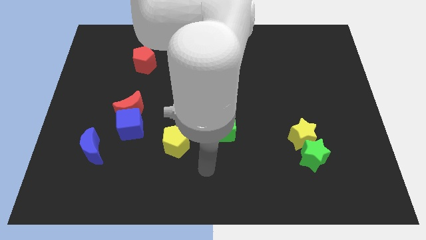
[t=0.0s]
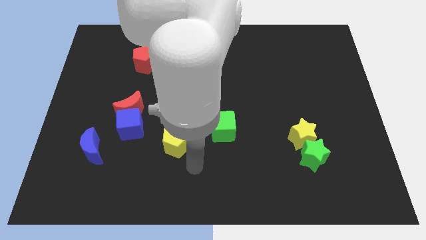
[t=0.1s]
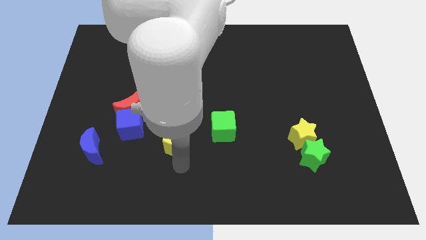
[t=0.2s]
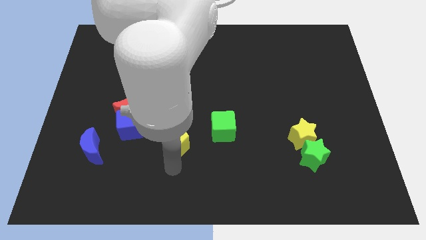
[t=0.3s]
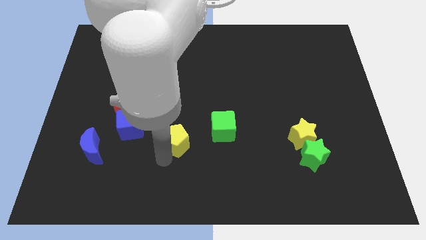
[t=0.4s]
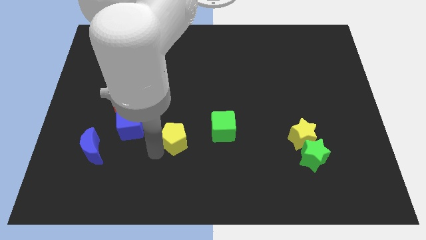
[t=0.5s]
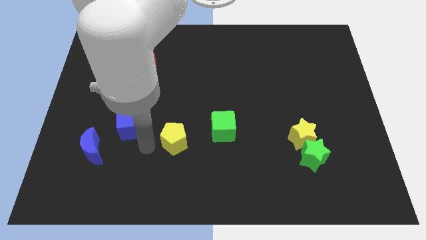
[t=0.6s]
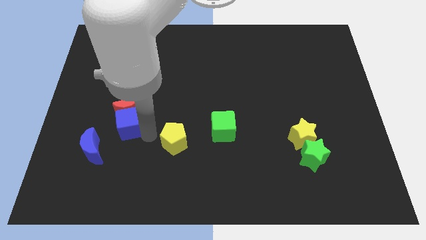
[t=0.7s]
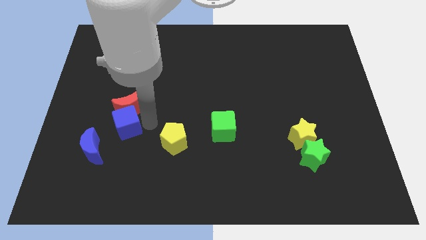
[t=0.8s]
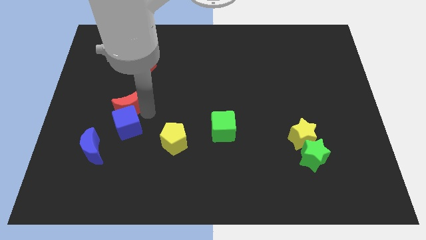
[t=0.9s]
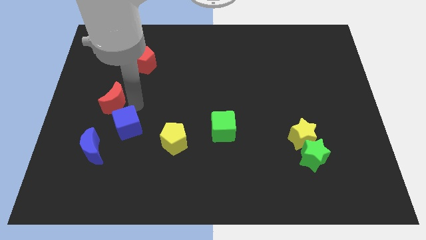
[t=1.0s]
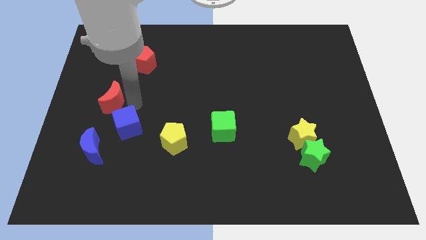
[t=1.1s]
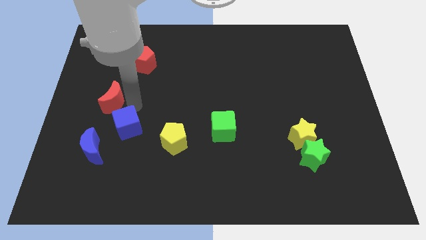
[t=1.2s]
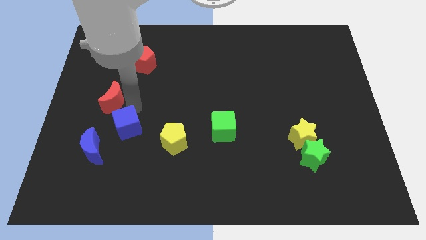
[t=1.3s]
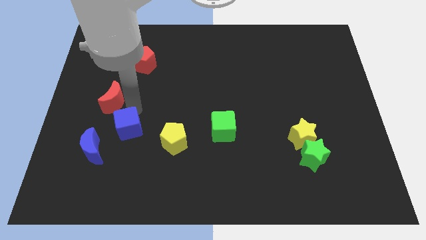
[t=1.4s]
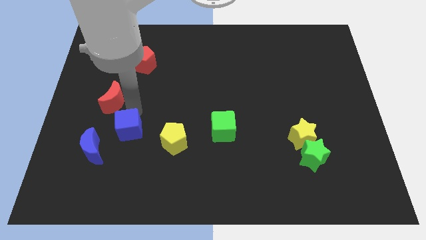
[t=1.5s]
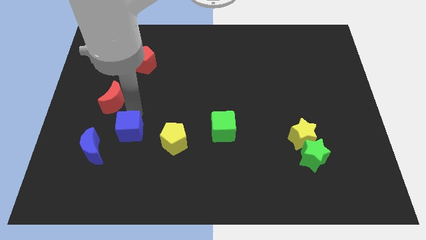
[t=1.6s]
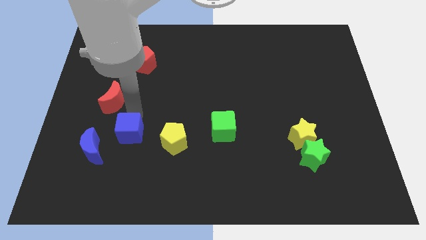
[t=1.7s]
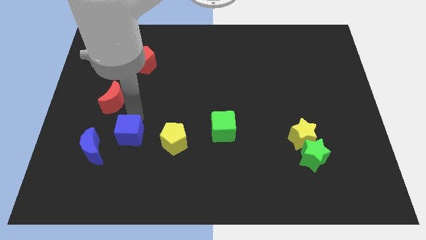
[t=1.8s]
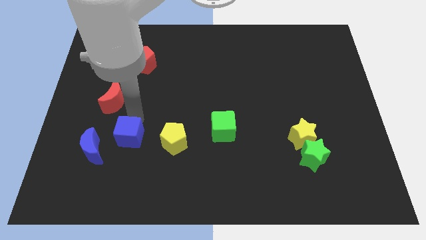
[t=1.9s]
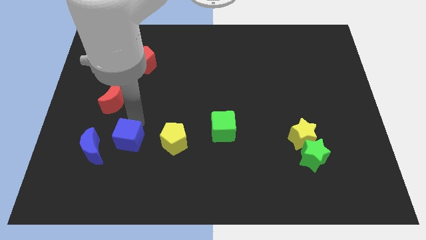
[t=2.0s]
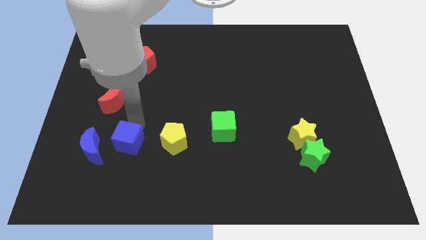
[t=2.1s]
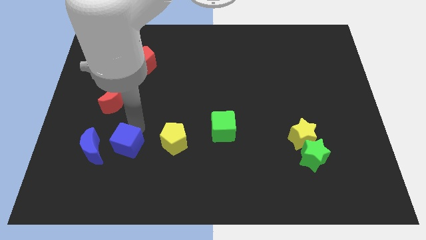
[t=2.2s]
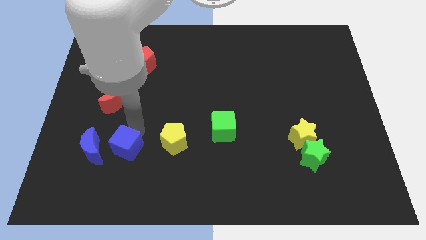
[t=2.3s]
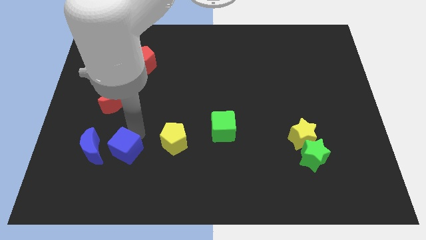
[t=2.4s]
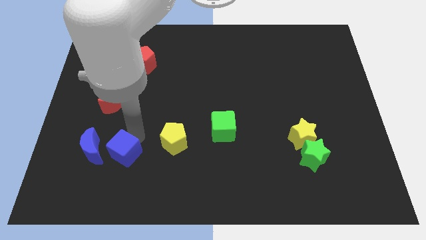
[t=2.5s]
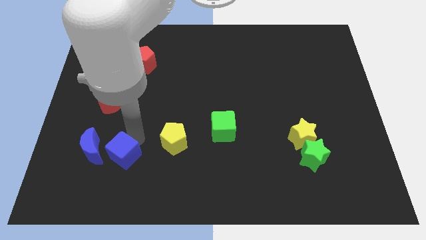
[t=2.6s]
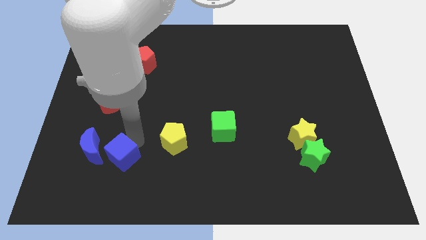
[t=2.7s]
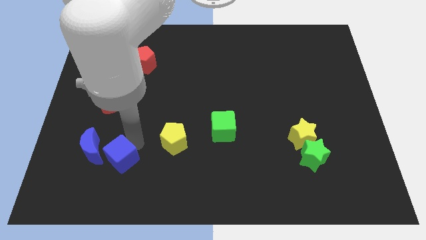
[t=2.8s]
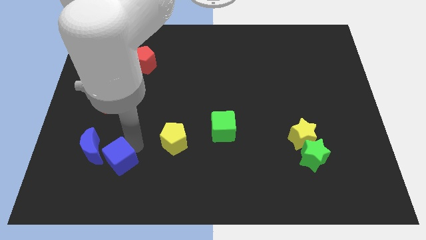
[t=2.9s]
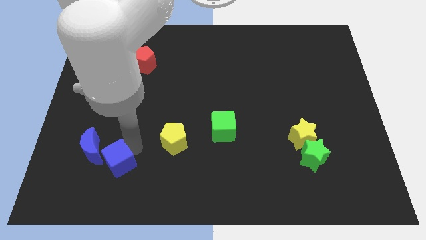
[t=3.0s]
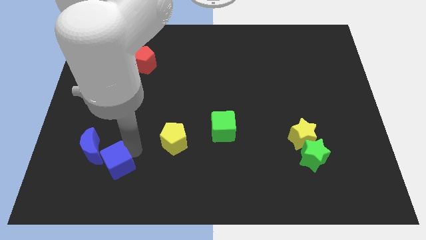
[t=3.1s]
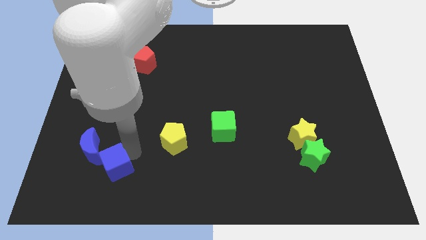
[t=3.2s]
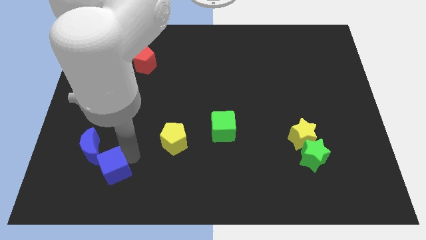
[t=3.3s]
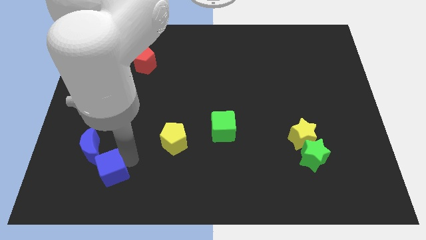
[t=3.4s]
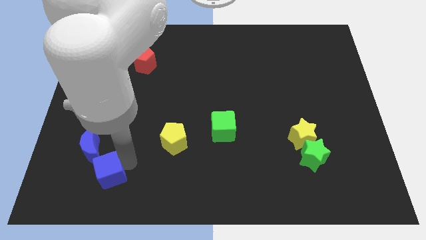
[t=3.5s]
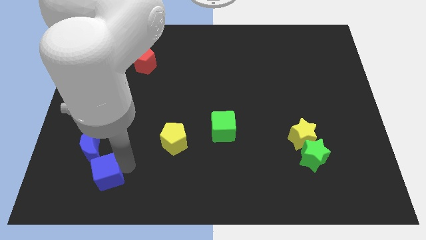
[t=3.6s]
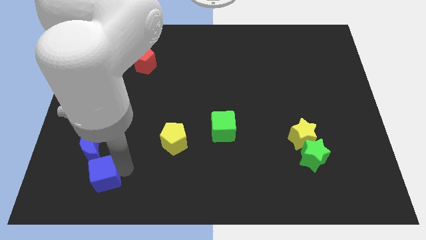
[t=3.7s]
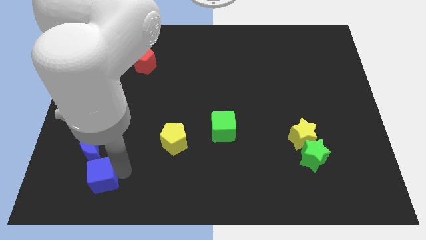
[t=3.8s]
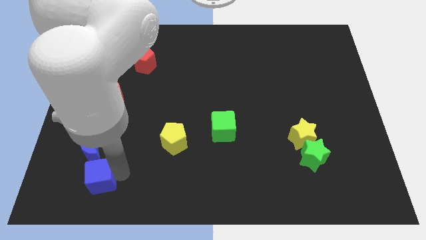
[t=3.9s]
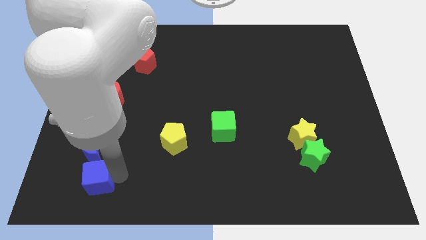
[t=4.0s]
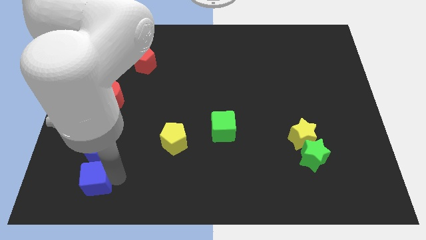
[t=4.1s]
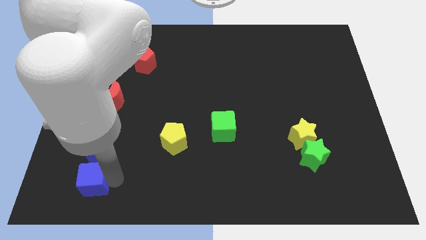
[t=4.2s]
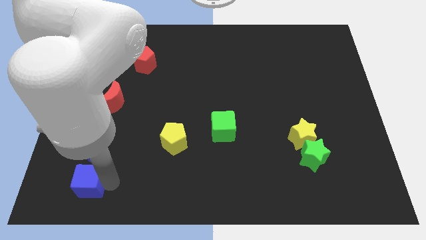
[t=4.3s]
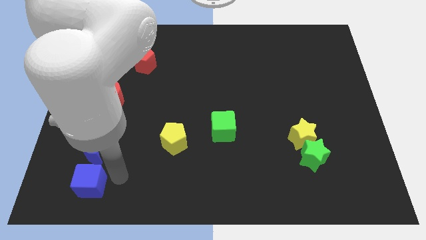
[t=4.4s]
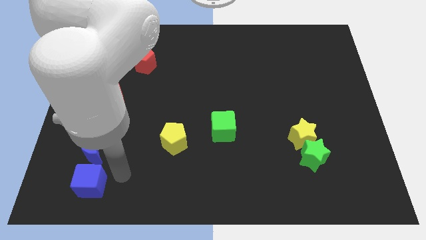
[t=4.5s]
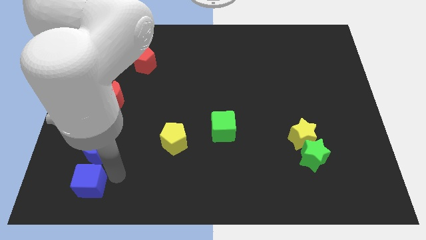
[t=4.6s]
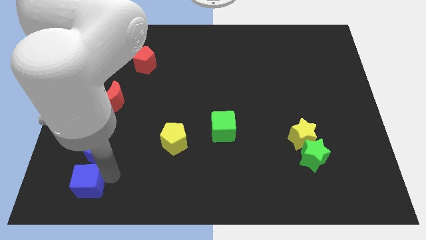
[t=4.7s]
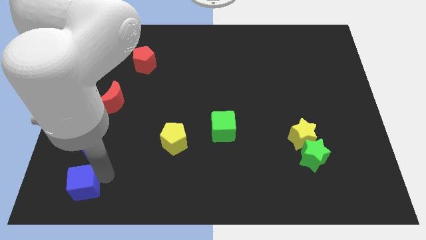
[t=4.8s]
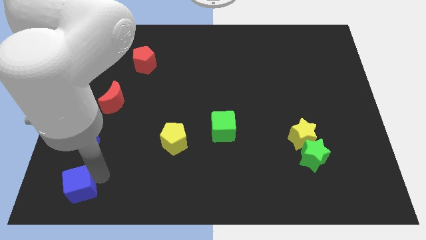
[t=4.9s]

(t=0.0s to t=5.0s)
slide the blue cube to the bottom left

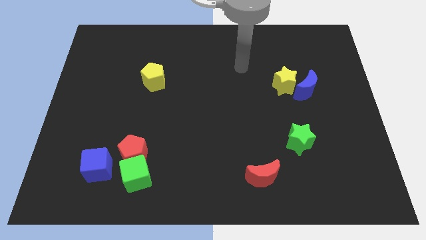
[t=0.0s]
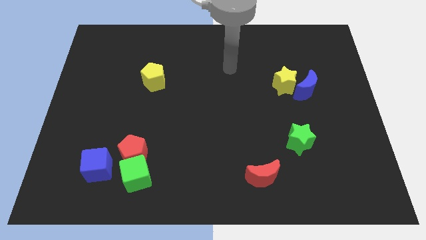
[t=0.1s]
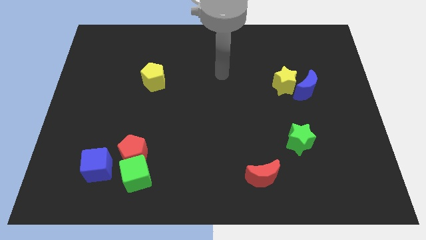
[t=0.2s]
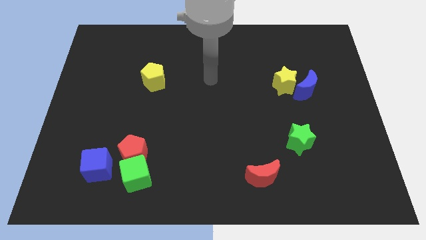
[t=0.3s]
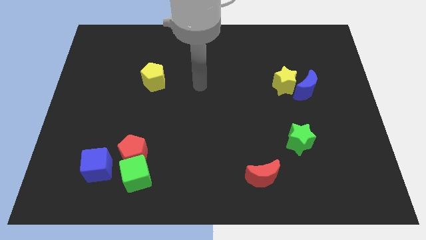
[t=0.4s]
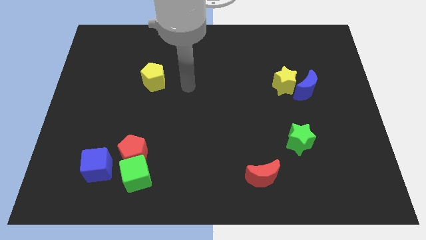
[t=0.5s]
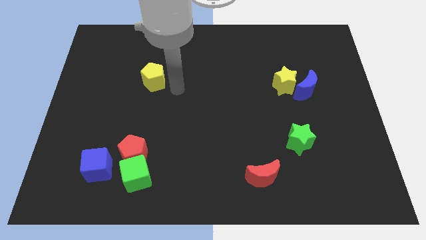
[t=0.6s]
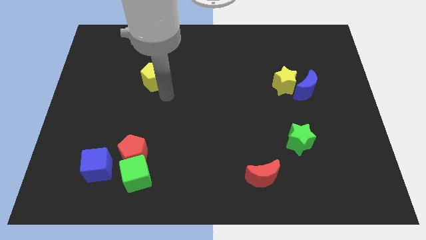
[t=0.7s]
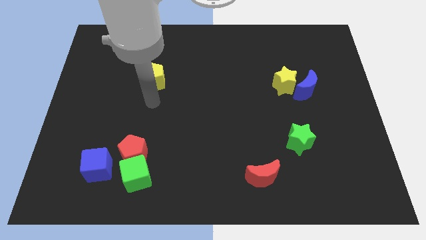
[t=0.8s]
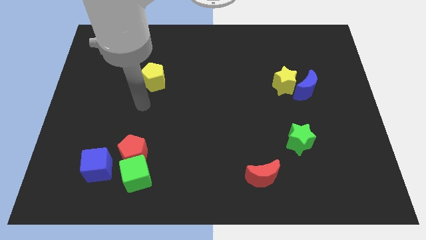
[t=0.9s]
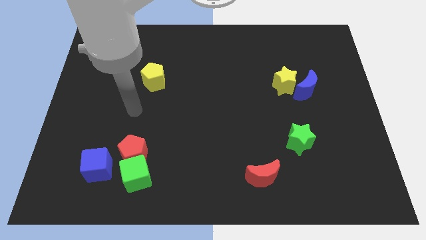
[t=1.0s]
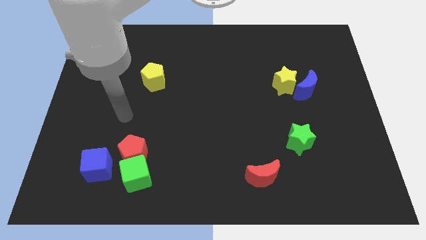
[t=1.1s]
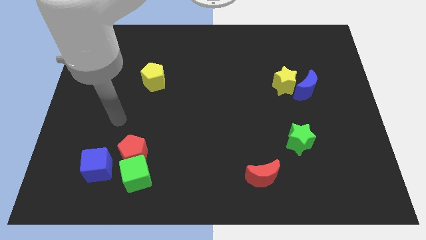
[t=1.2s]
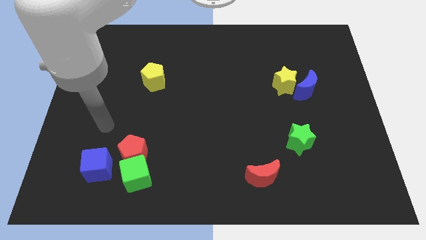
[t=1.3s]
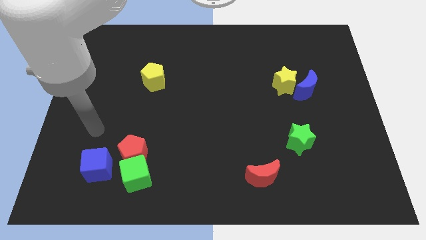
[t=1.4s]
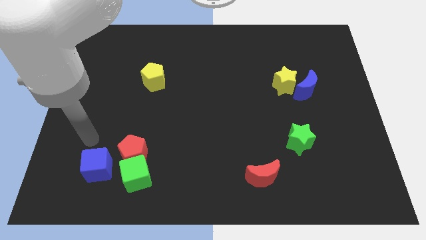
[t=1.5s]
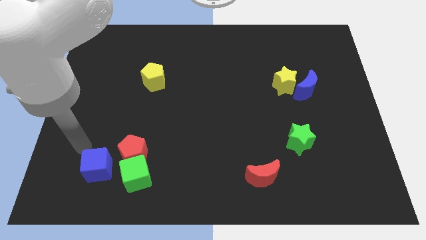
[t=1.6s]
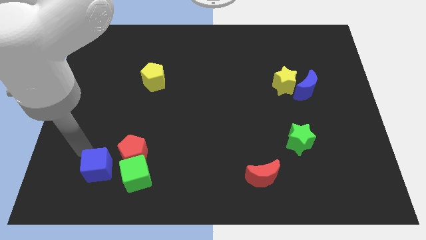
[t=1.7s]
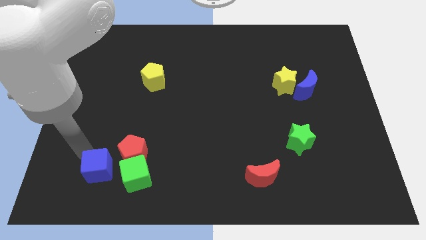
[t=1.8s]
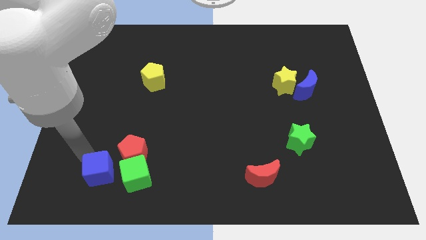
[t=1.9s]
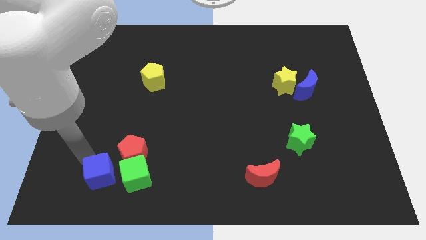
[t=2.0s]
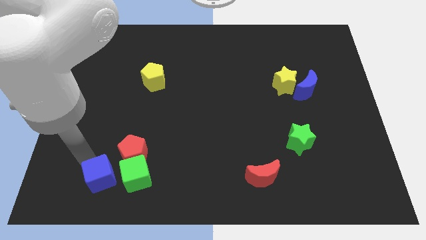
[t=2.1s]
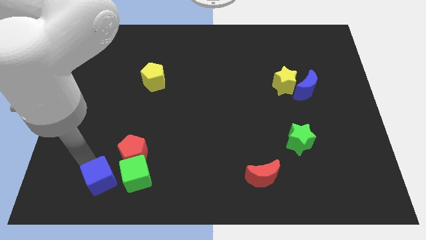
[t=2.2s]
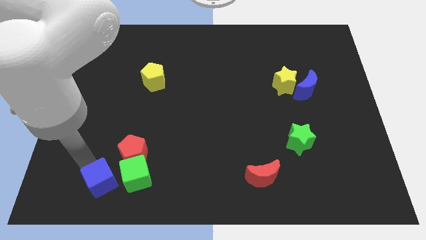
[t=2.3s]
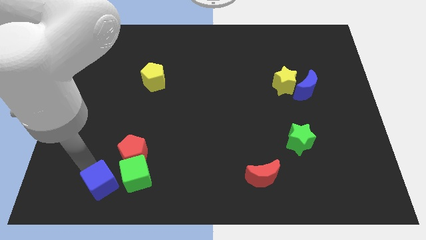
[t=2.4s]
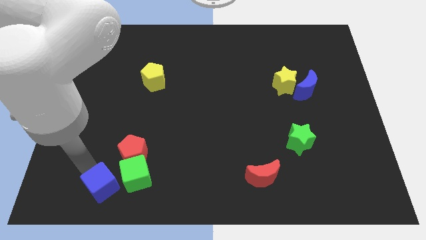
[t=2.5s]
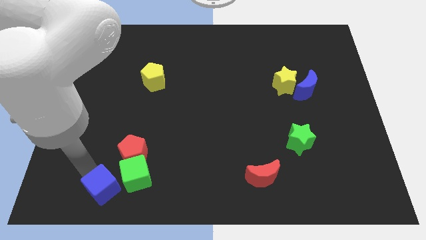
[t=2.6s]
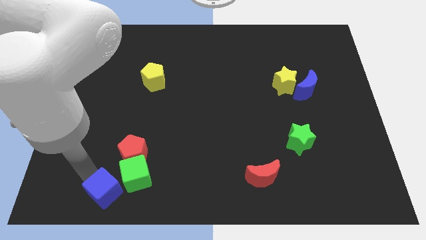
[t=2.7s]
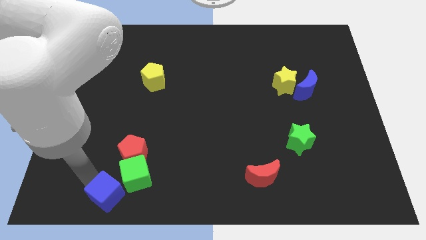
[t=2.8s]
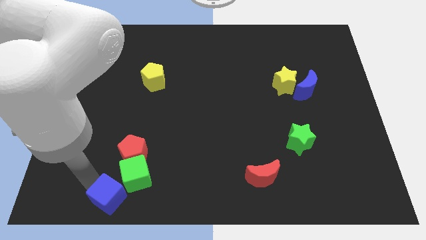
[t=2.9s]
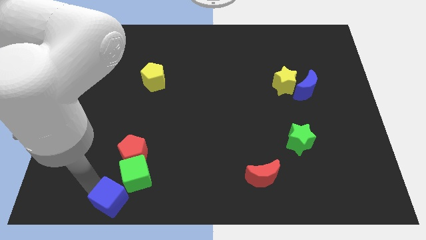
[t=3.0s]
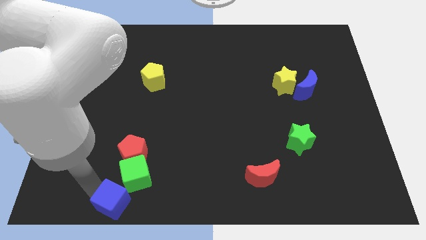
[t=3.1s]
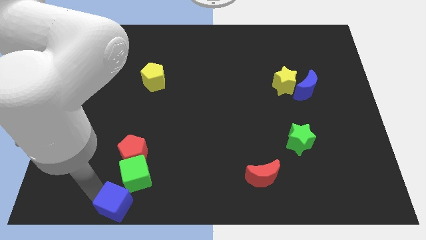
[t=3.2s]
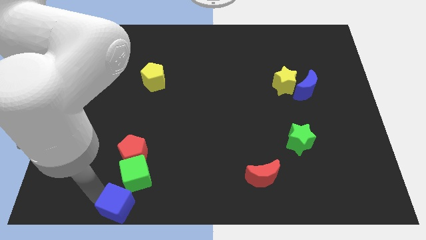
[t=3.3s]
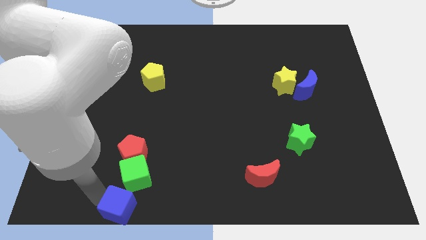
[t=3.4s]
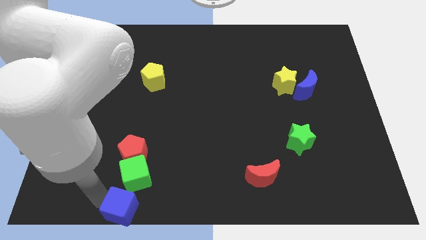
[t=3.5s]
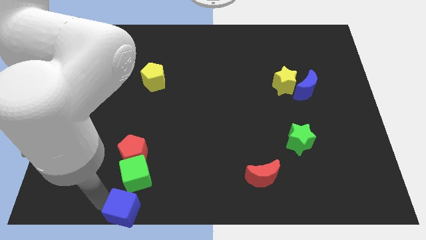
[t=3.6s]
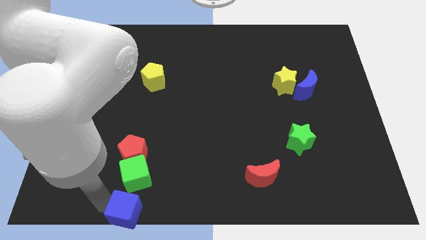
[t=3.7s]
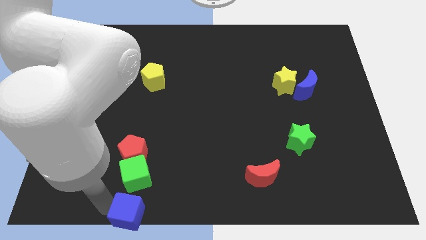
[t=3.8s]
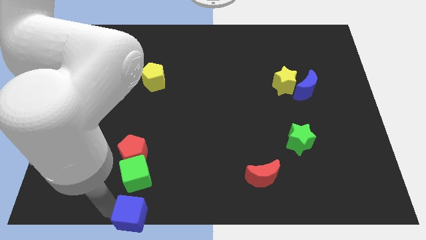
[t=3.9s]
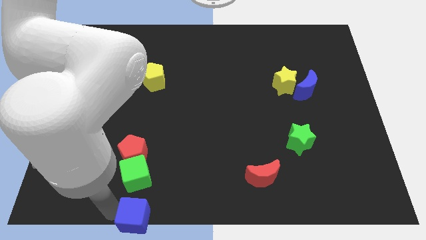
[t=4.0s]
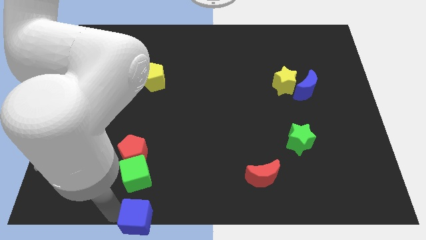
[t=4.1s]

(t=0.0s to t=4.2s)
move the blue cube to the bottom
